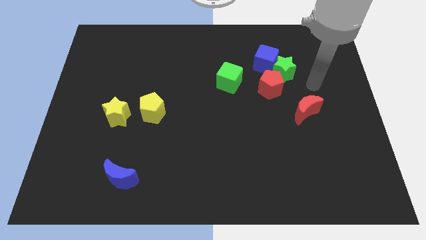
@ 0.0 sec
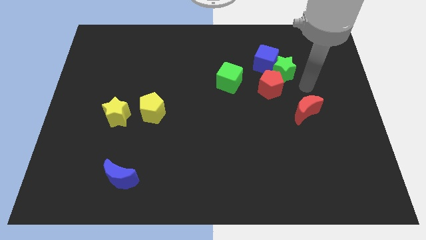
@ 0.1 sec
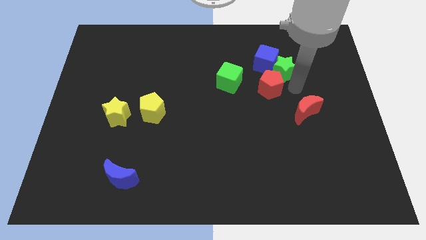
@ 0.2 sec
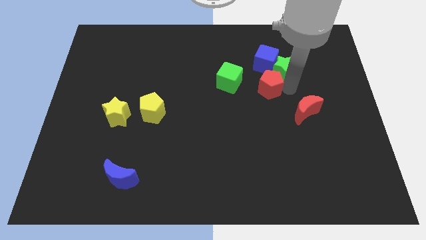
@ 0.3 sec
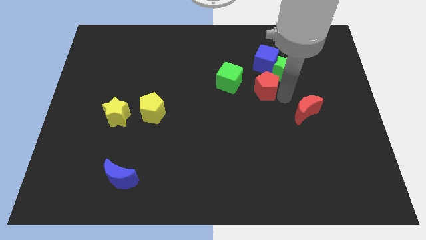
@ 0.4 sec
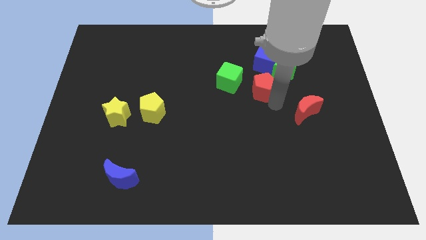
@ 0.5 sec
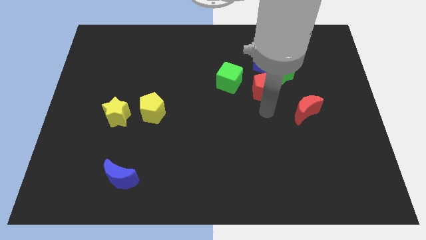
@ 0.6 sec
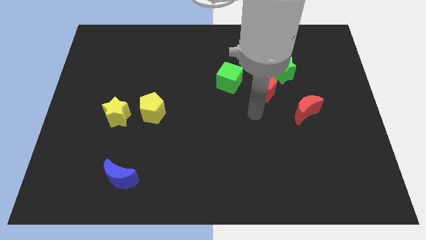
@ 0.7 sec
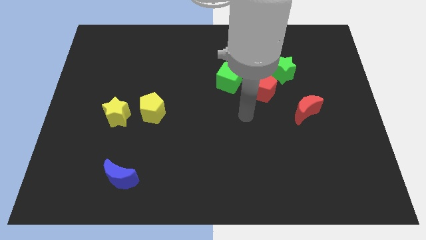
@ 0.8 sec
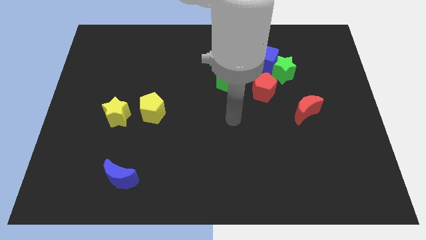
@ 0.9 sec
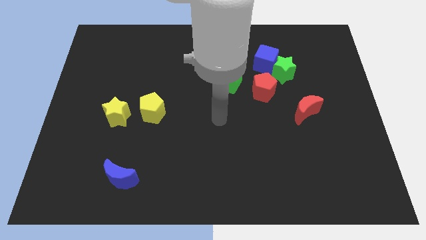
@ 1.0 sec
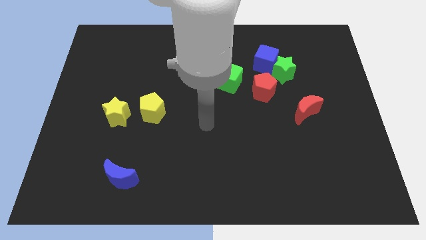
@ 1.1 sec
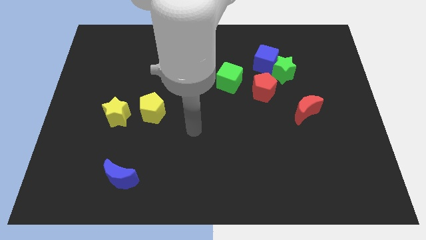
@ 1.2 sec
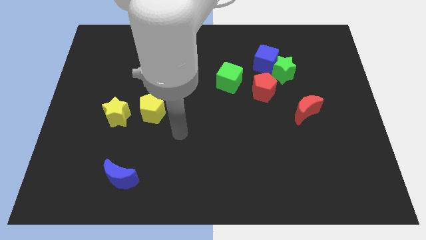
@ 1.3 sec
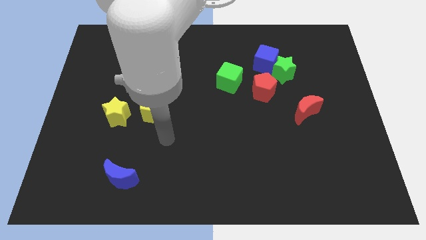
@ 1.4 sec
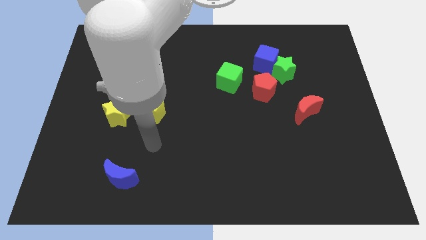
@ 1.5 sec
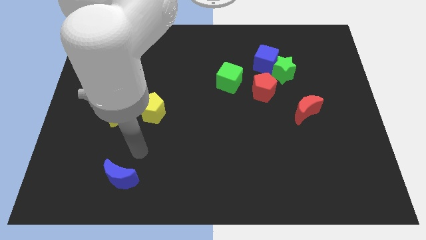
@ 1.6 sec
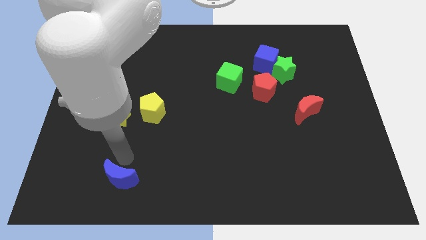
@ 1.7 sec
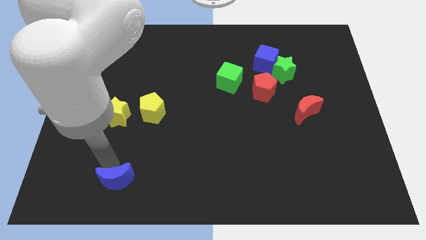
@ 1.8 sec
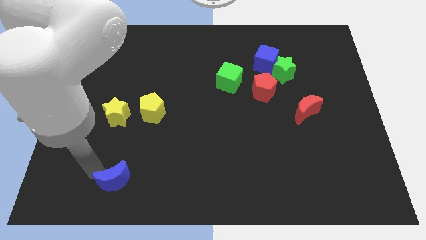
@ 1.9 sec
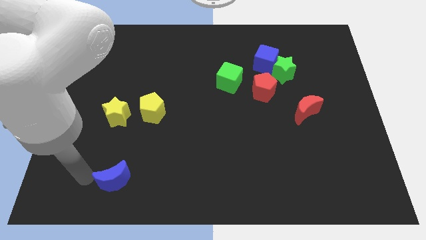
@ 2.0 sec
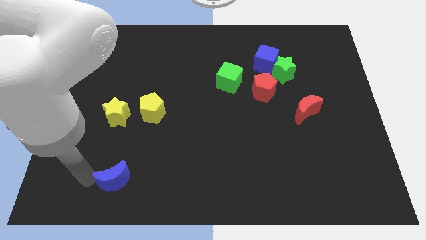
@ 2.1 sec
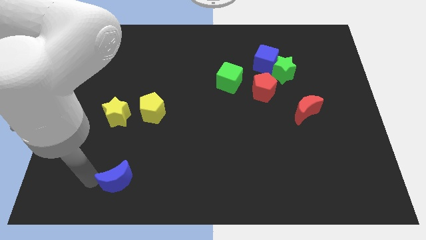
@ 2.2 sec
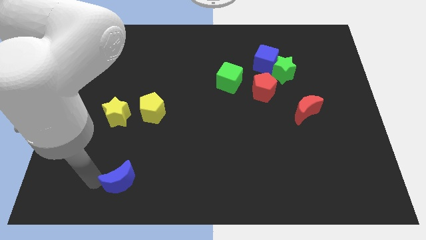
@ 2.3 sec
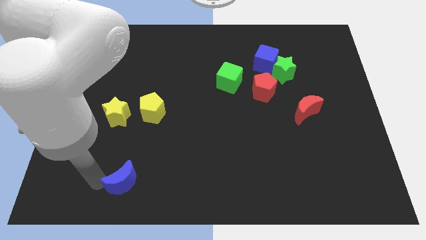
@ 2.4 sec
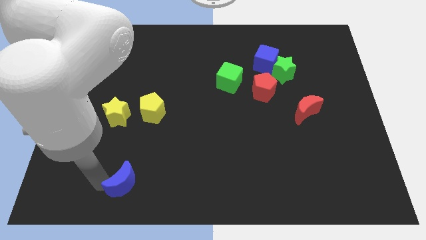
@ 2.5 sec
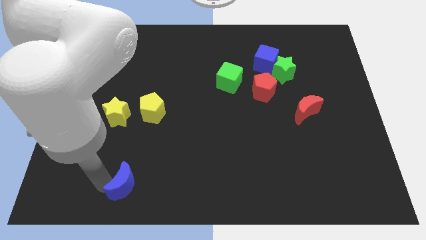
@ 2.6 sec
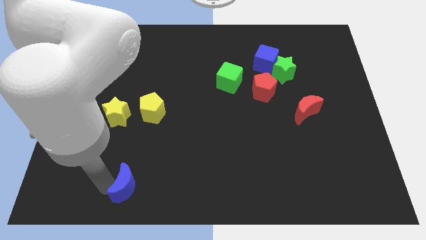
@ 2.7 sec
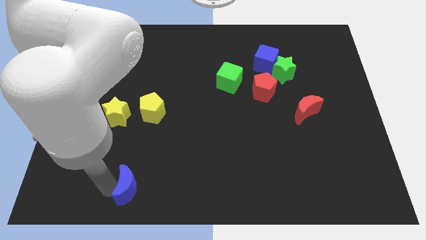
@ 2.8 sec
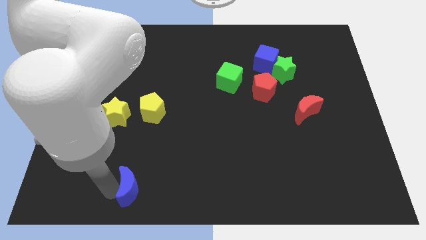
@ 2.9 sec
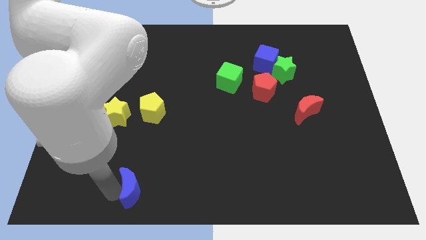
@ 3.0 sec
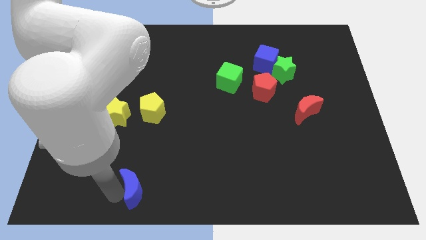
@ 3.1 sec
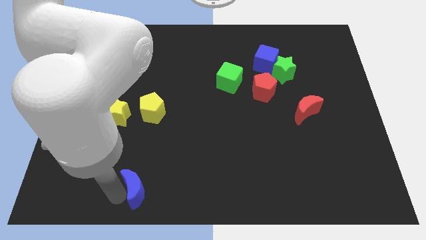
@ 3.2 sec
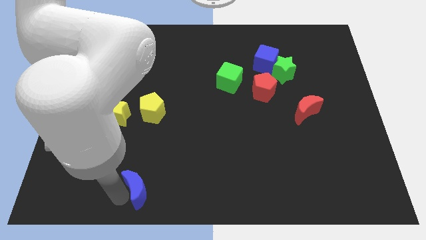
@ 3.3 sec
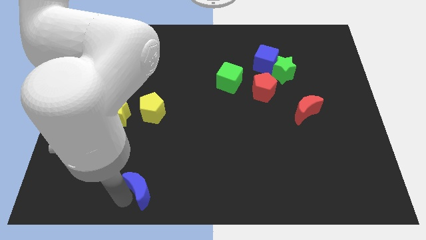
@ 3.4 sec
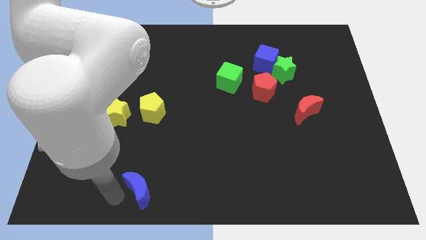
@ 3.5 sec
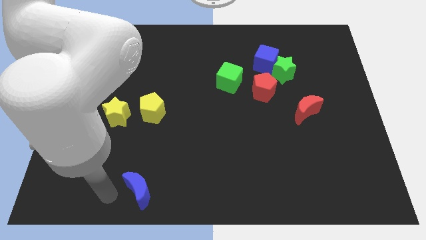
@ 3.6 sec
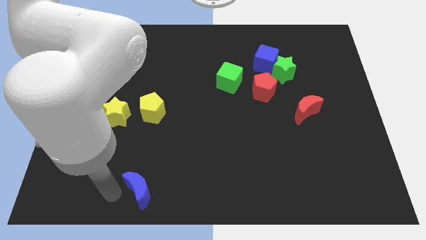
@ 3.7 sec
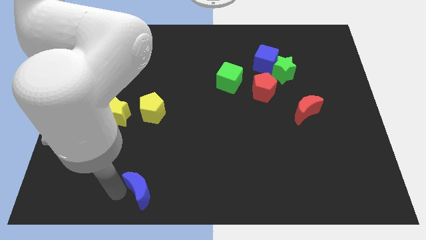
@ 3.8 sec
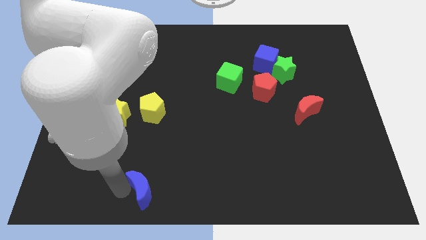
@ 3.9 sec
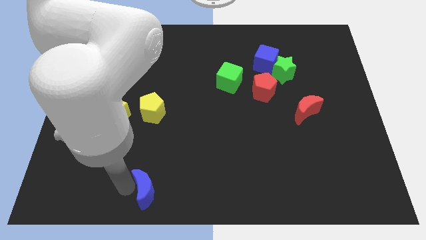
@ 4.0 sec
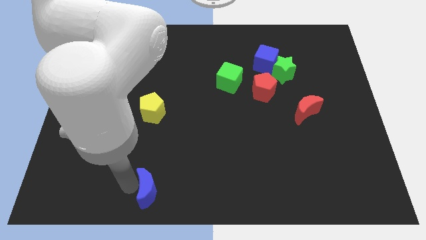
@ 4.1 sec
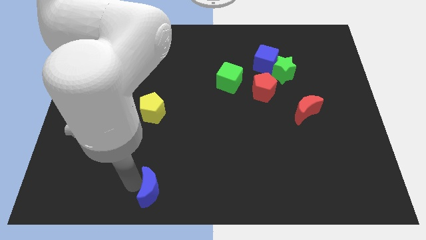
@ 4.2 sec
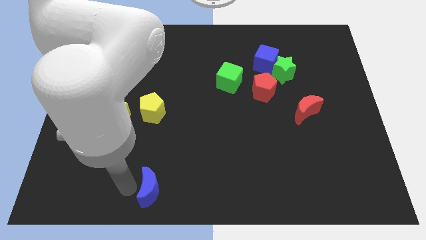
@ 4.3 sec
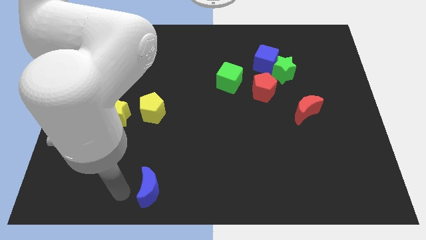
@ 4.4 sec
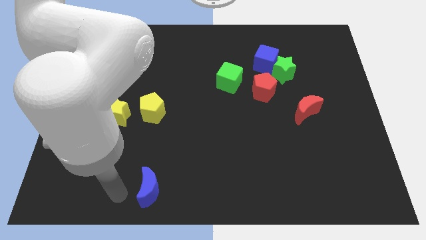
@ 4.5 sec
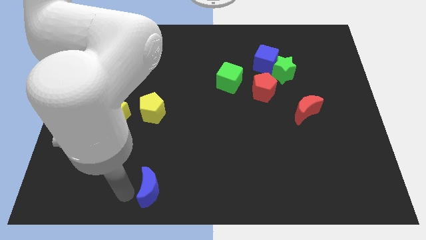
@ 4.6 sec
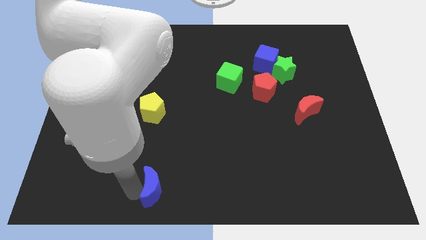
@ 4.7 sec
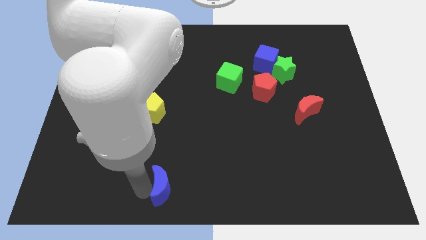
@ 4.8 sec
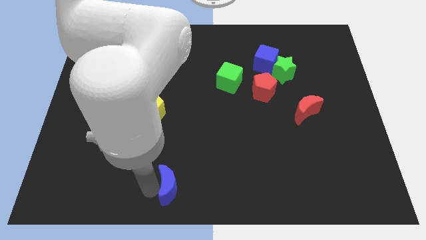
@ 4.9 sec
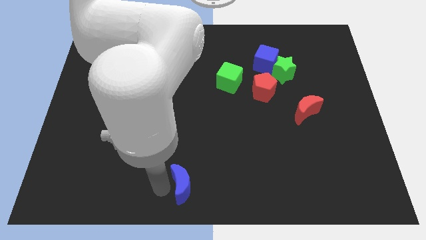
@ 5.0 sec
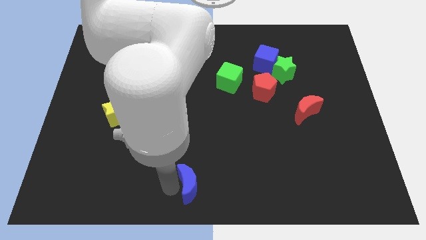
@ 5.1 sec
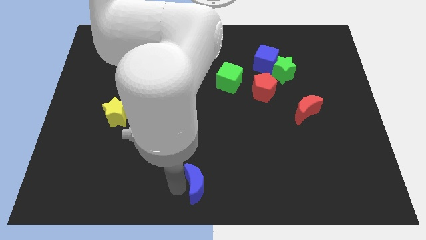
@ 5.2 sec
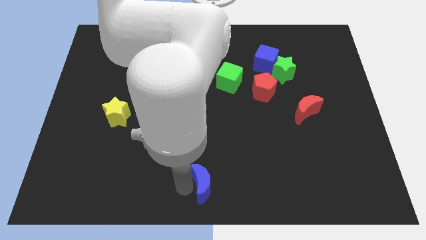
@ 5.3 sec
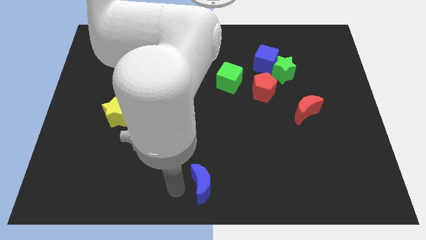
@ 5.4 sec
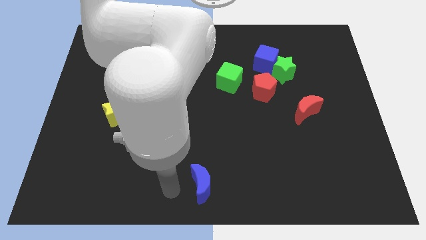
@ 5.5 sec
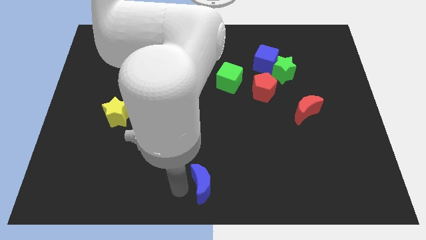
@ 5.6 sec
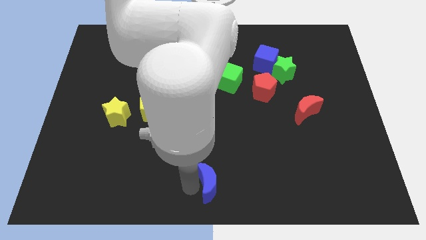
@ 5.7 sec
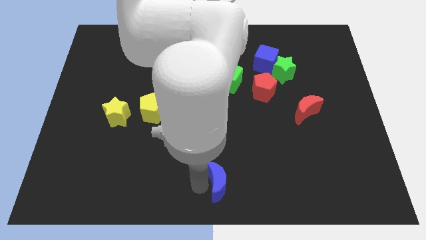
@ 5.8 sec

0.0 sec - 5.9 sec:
push the blue moon right

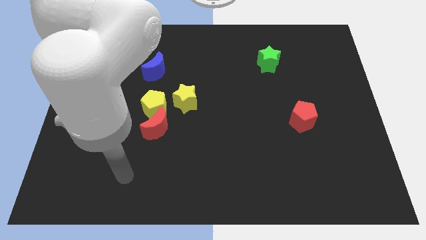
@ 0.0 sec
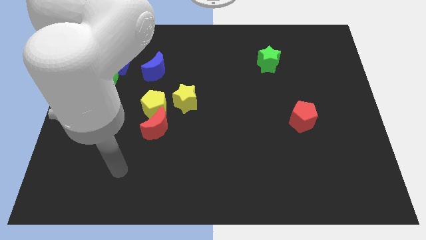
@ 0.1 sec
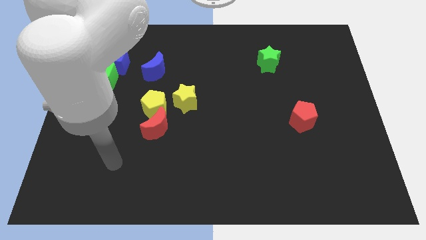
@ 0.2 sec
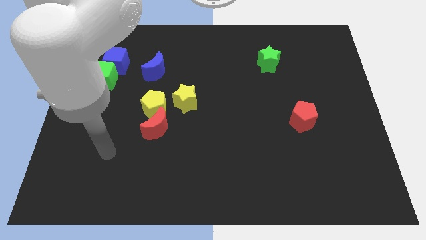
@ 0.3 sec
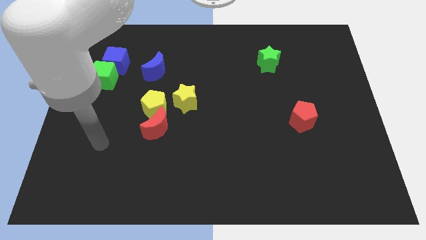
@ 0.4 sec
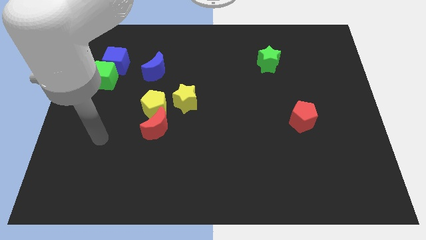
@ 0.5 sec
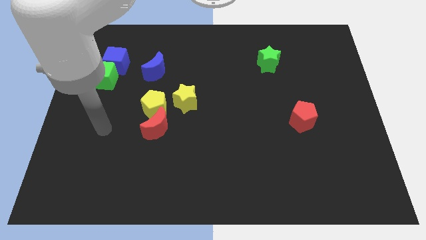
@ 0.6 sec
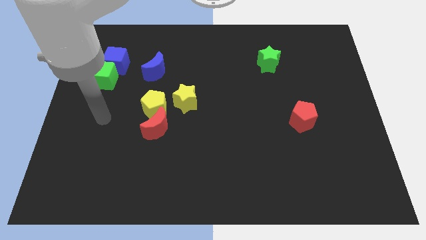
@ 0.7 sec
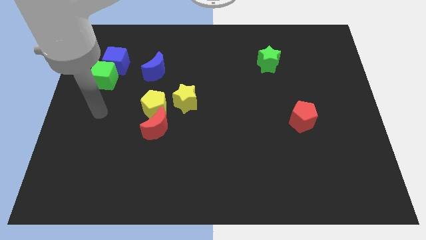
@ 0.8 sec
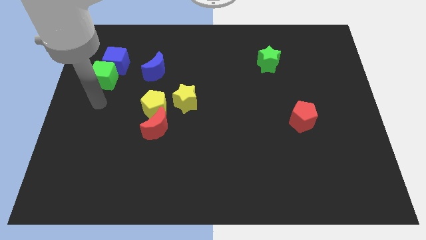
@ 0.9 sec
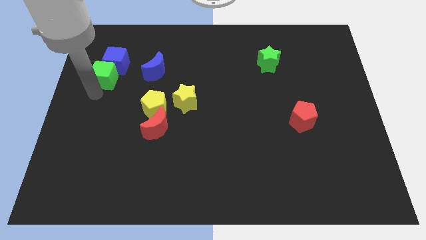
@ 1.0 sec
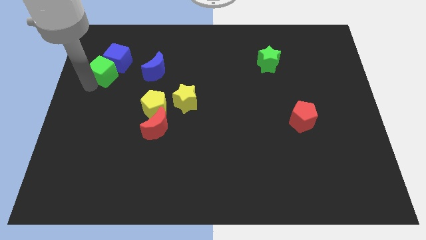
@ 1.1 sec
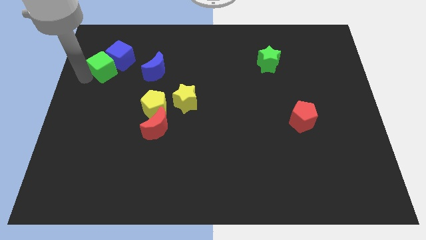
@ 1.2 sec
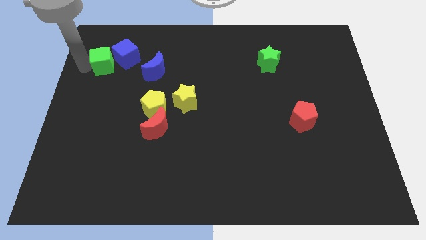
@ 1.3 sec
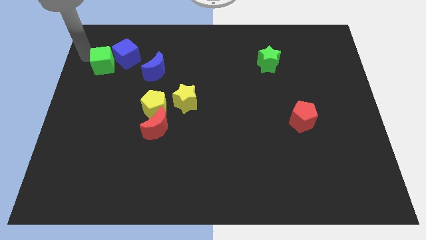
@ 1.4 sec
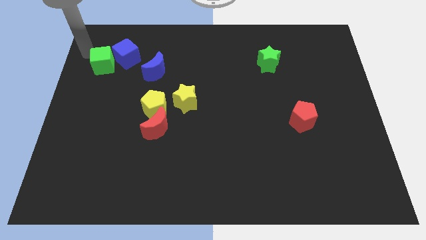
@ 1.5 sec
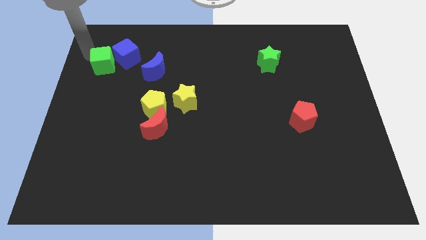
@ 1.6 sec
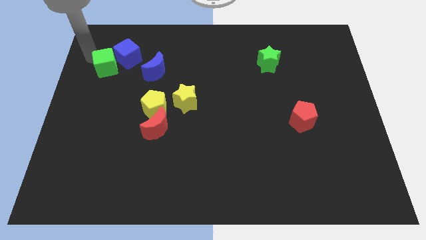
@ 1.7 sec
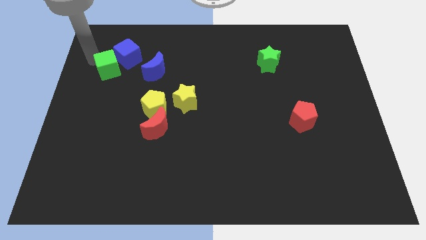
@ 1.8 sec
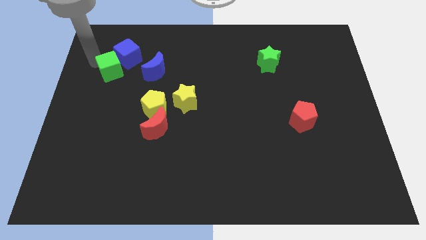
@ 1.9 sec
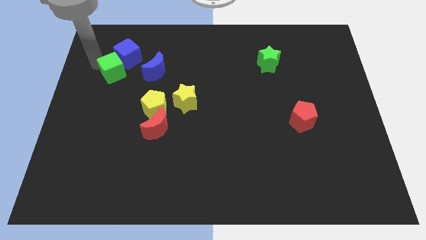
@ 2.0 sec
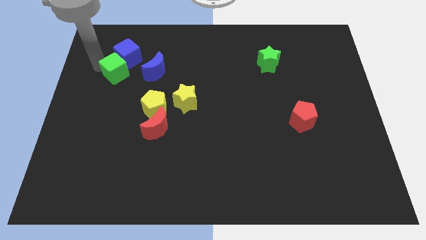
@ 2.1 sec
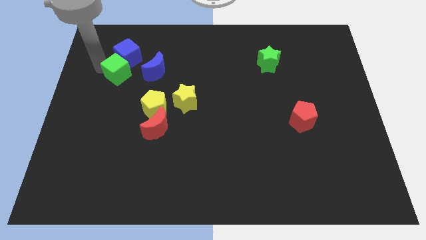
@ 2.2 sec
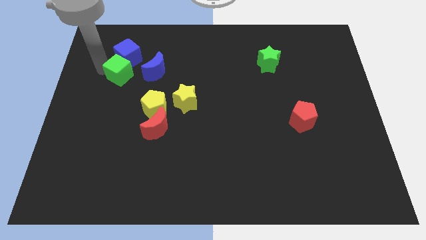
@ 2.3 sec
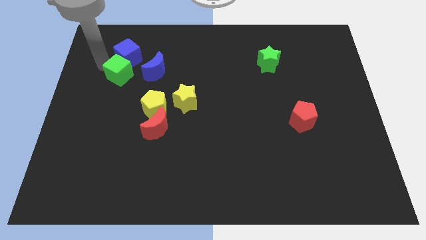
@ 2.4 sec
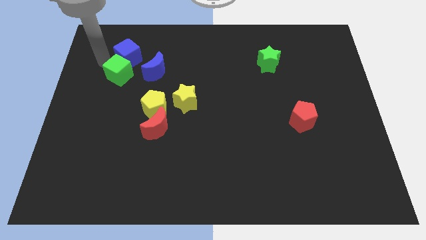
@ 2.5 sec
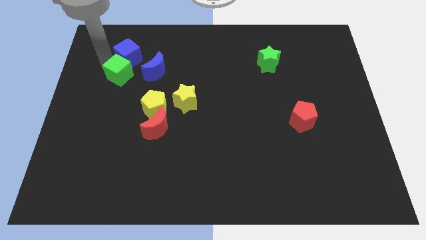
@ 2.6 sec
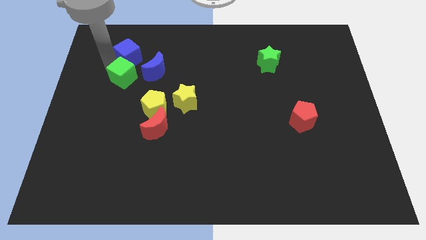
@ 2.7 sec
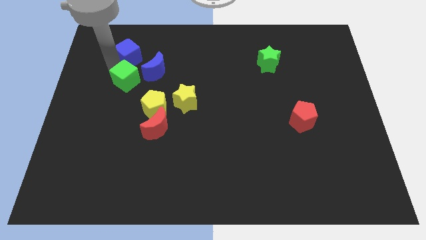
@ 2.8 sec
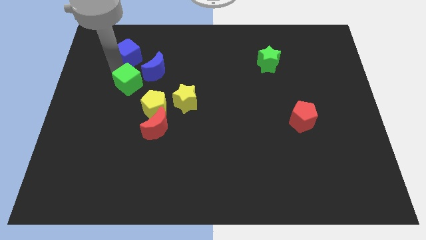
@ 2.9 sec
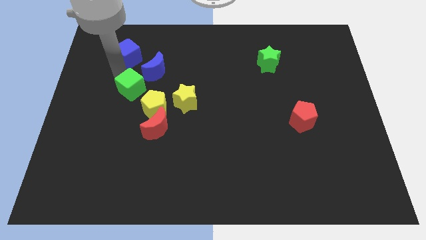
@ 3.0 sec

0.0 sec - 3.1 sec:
move the green cube a little bit to the right
